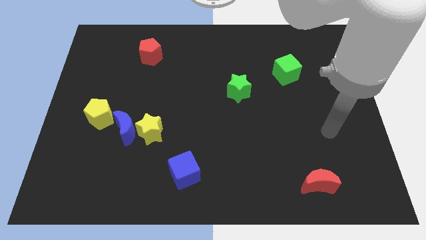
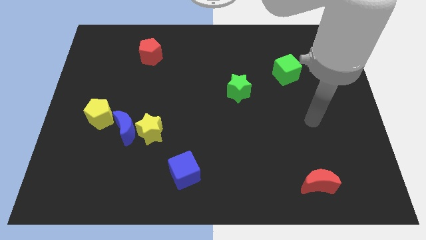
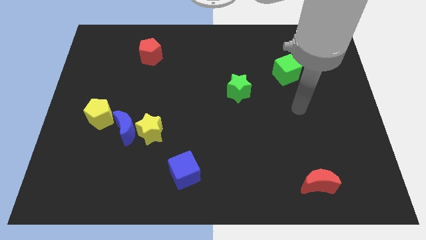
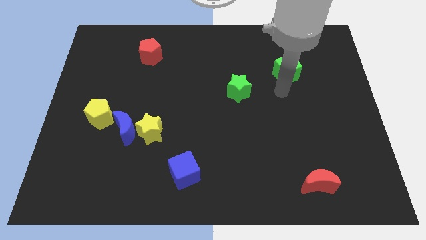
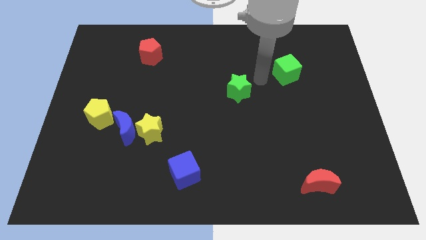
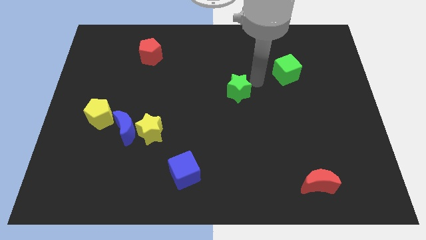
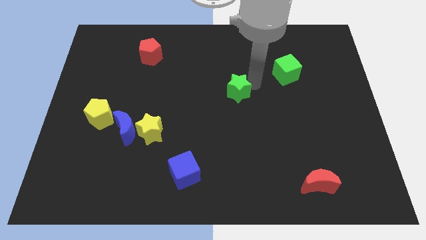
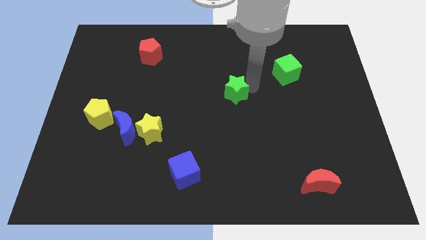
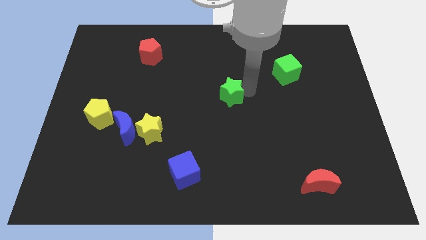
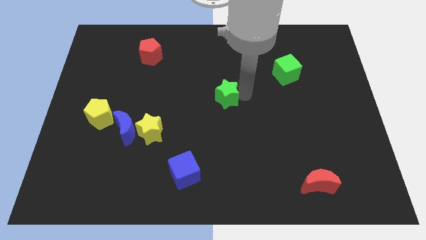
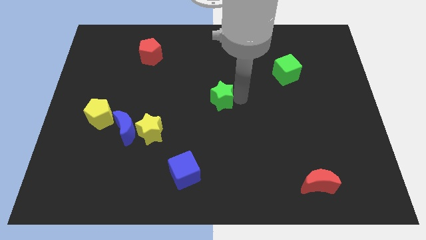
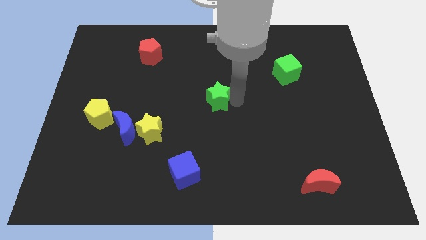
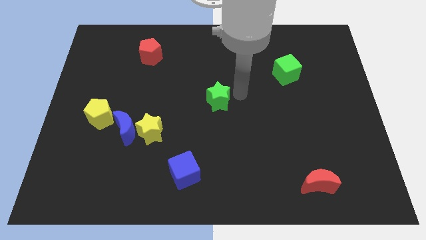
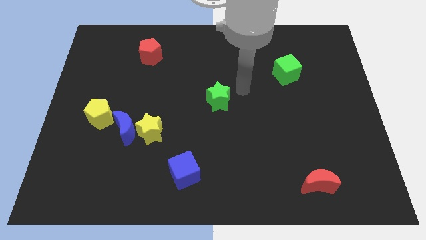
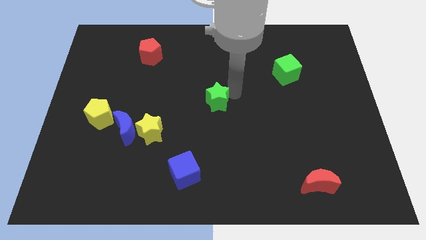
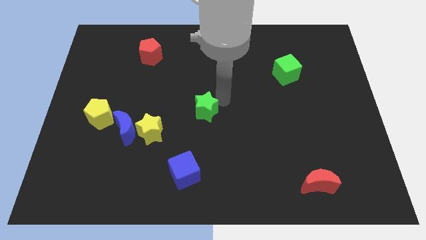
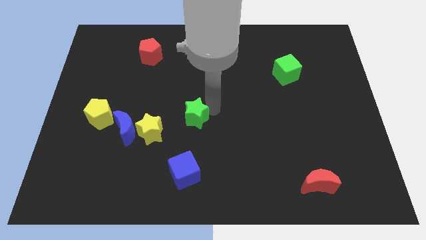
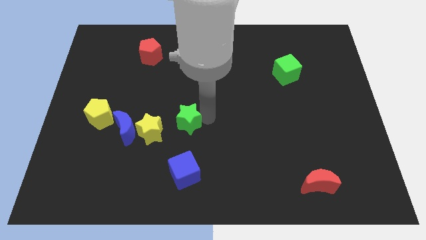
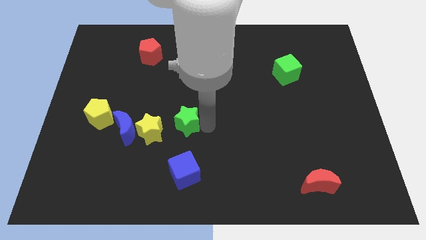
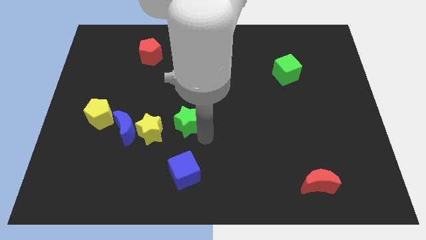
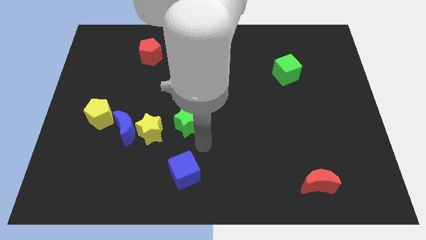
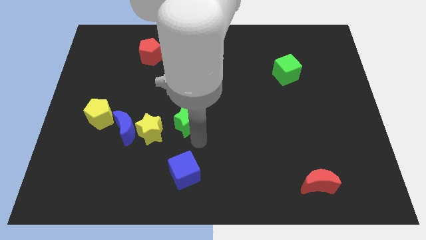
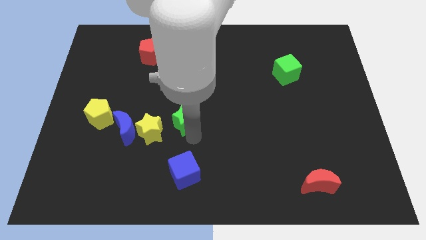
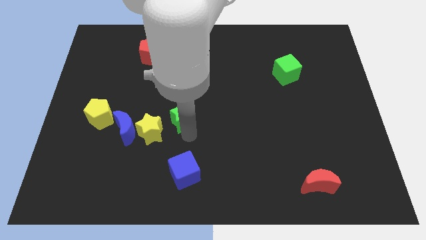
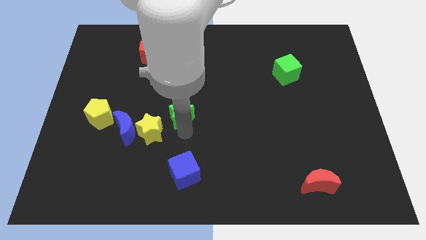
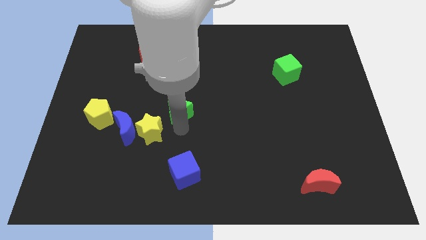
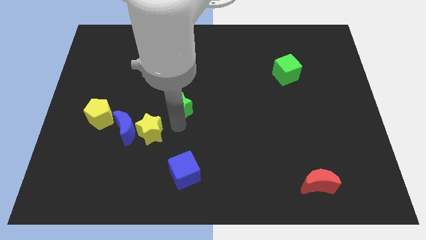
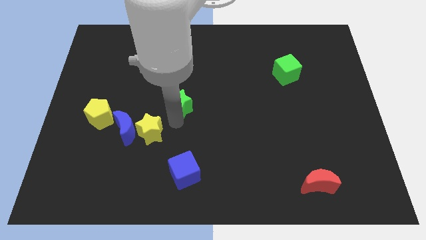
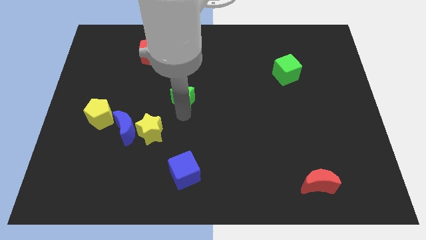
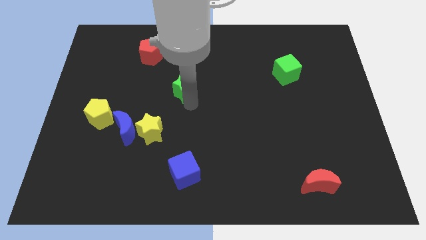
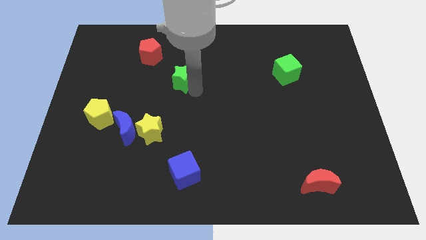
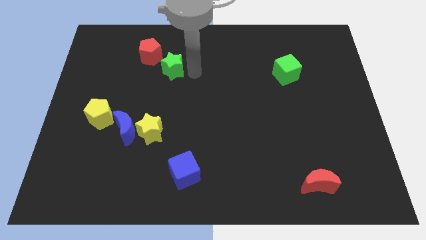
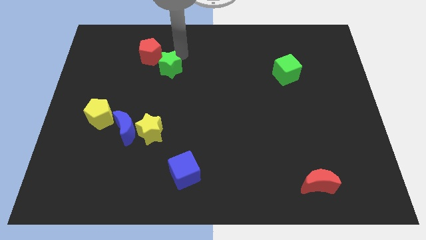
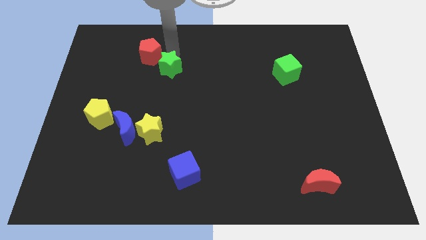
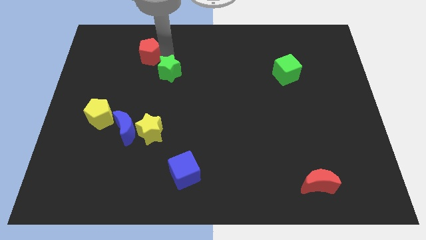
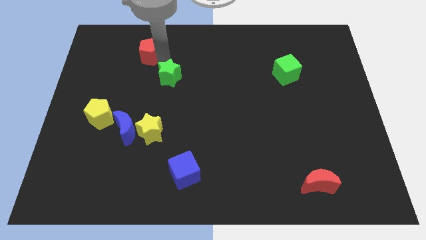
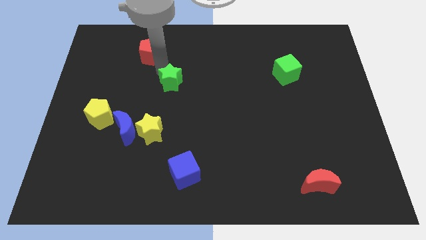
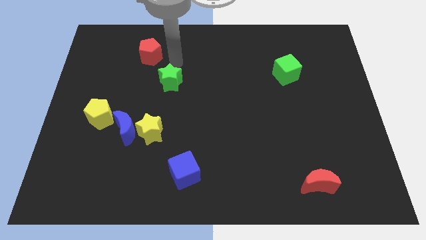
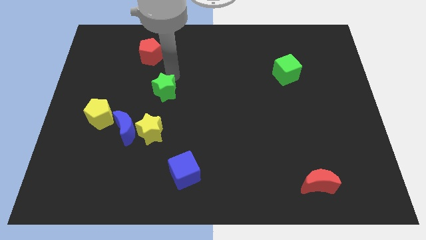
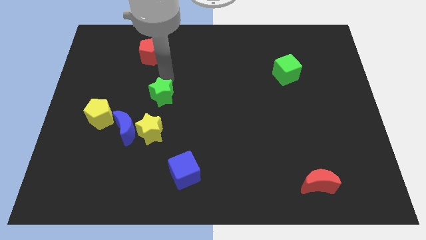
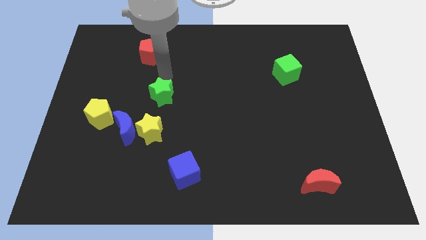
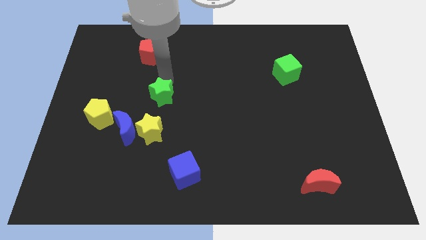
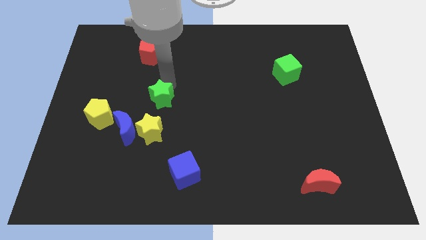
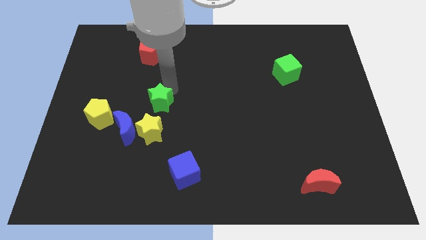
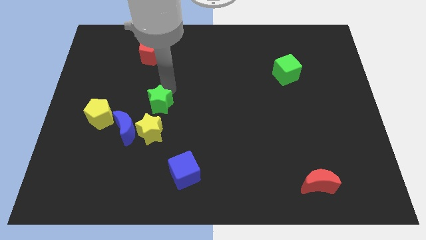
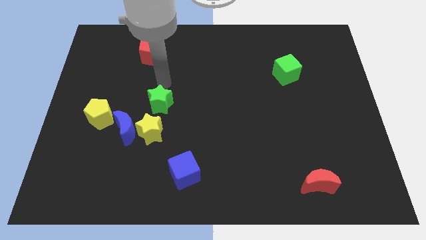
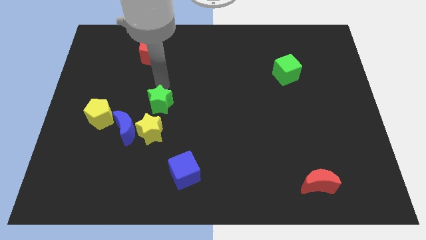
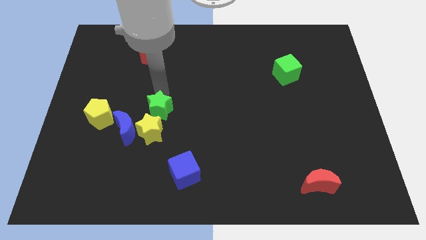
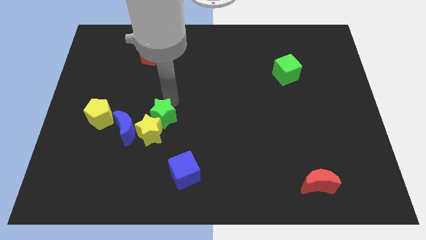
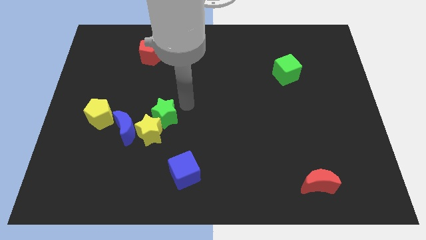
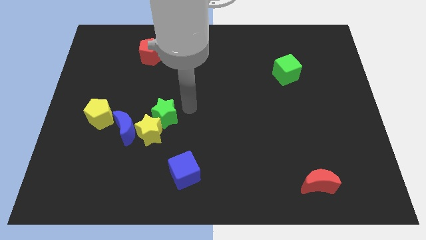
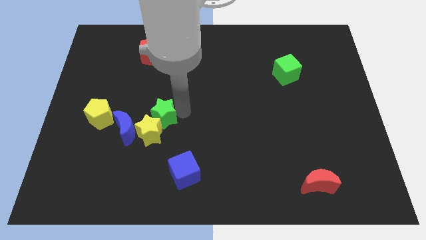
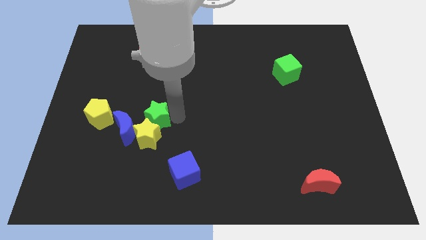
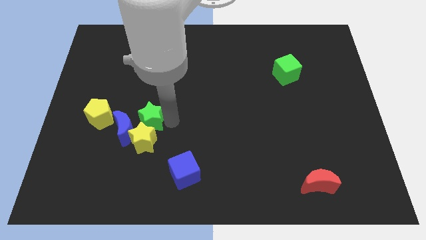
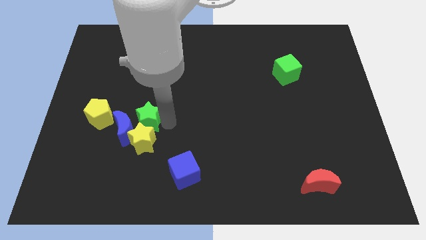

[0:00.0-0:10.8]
slide the green star next to the blue moon

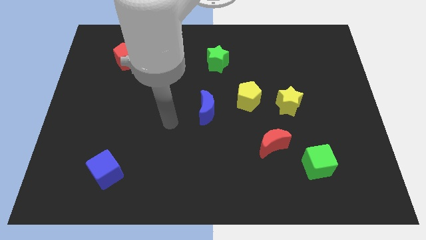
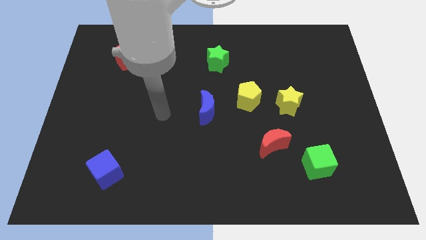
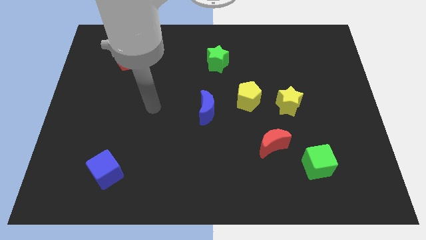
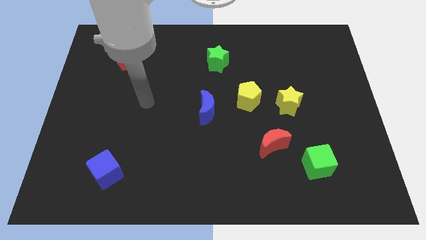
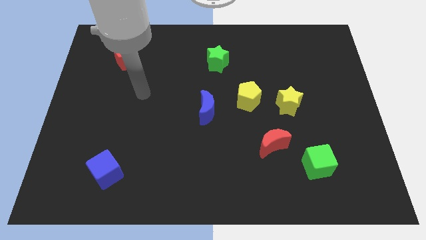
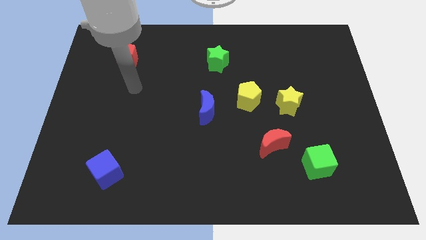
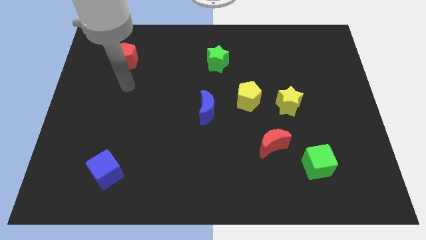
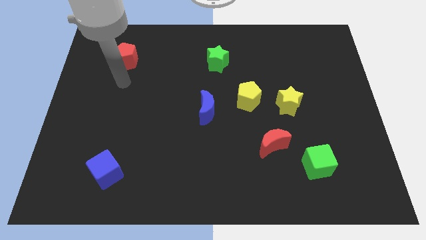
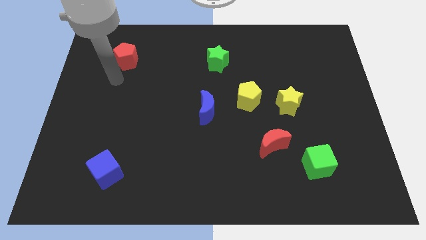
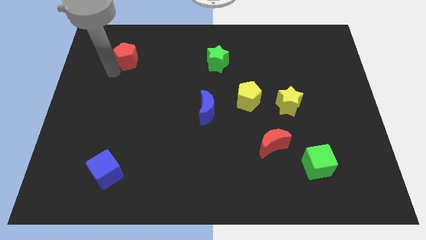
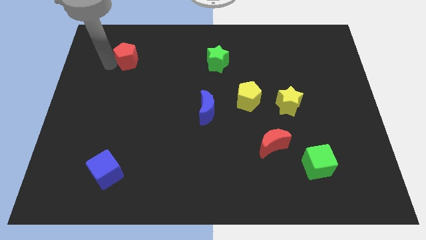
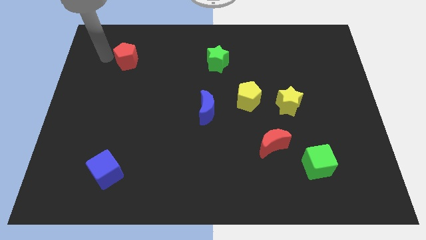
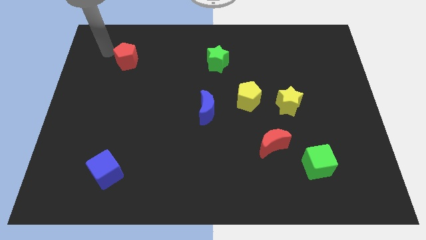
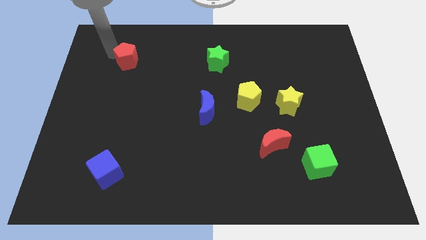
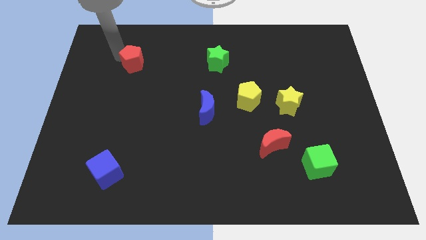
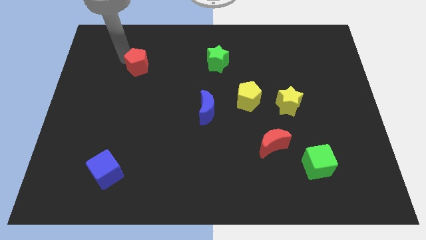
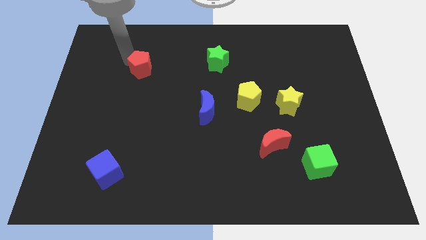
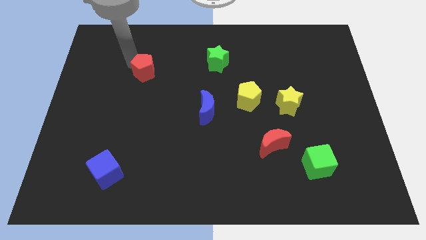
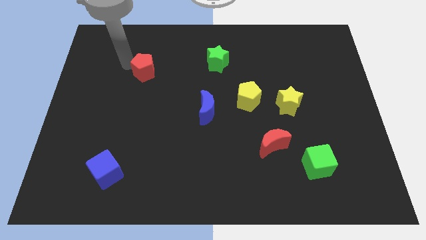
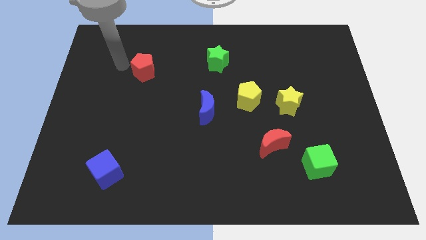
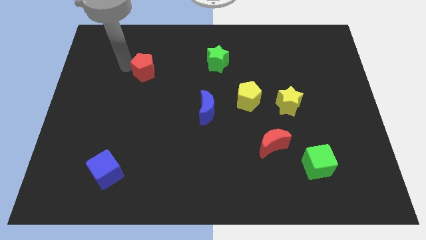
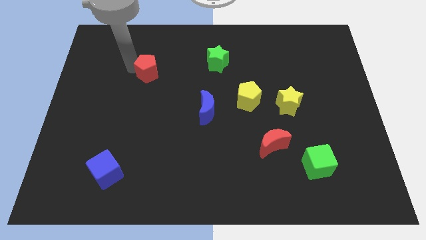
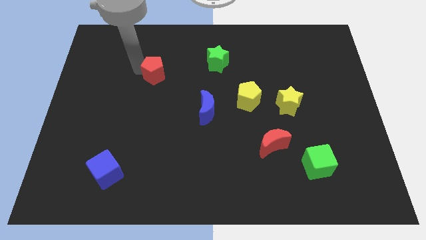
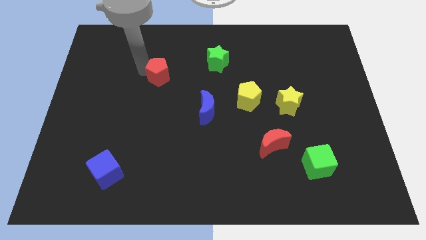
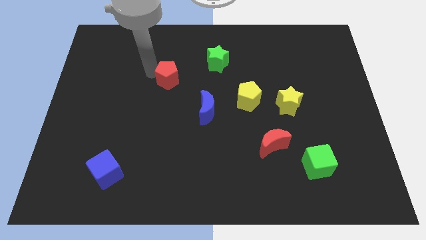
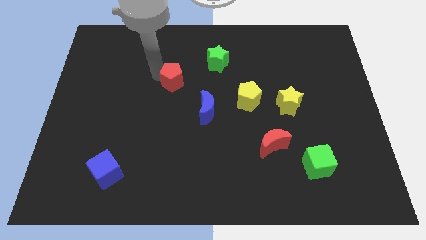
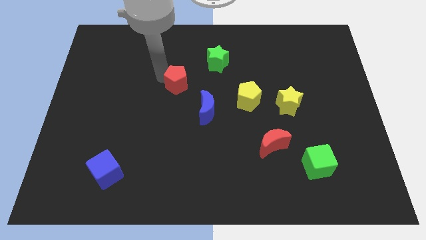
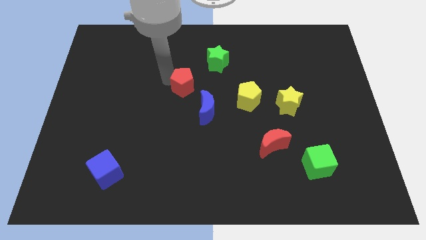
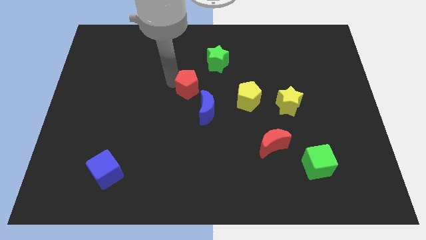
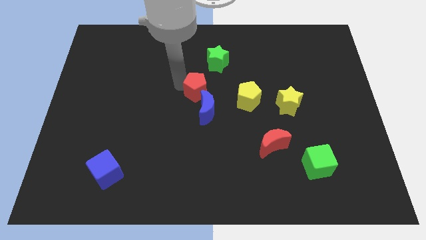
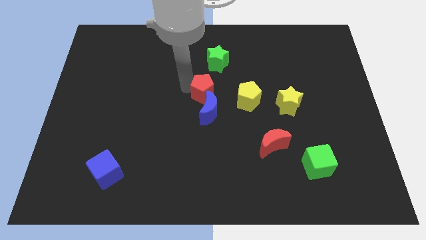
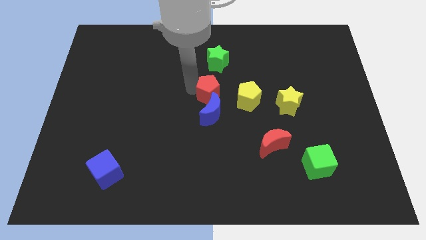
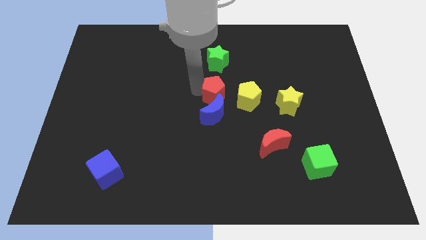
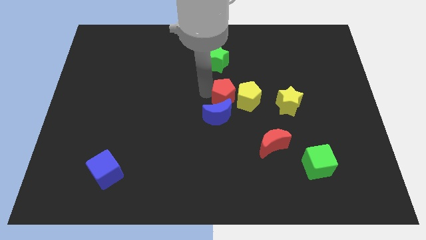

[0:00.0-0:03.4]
put the red pentagon towards the yellow pentagon
